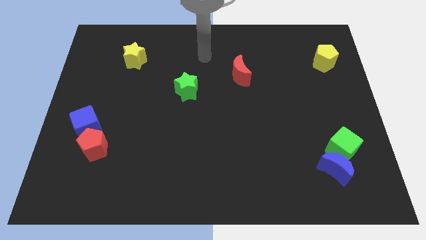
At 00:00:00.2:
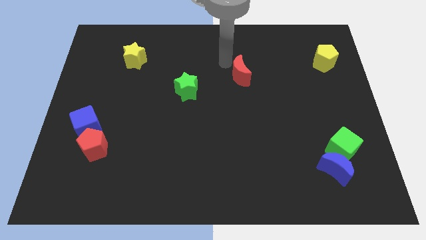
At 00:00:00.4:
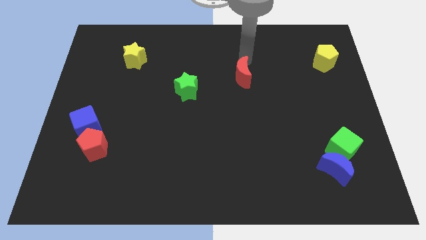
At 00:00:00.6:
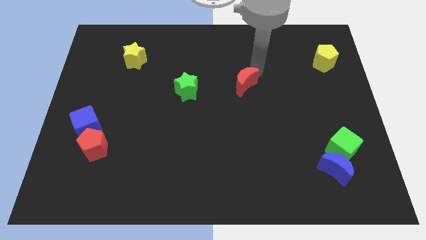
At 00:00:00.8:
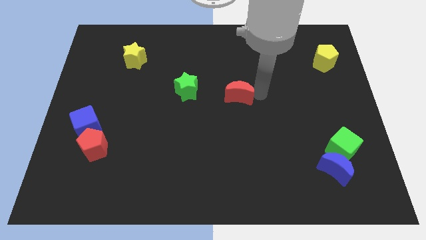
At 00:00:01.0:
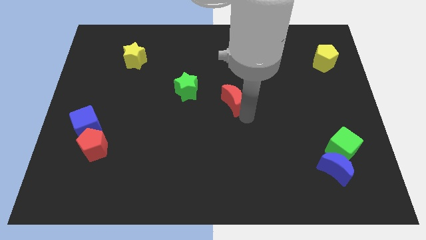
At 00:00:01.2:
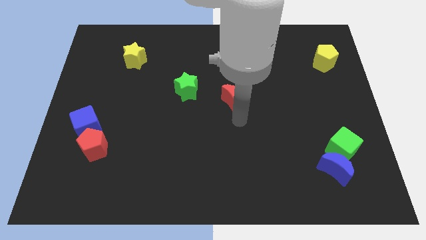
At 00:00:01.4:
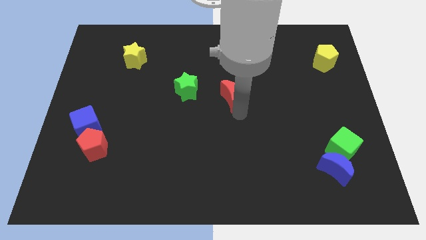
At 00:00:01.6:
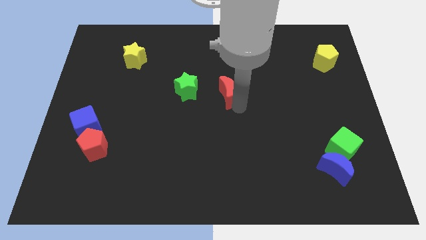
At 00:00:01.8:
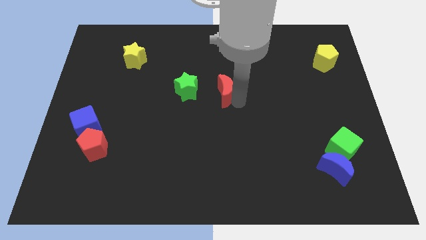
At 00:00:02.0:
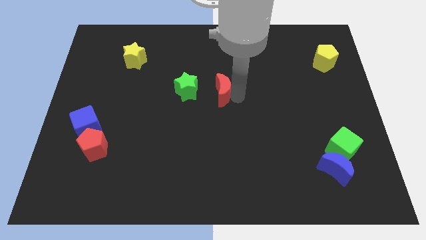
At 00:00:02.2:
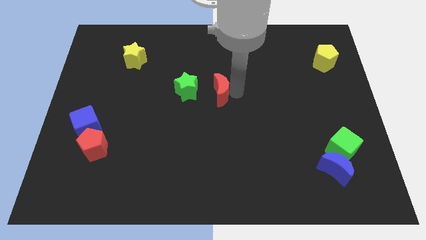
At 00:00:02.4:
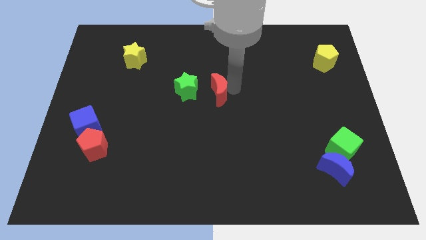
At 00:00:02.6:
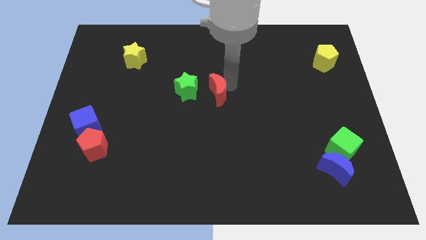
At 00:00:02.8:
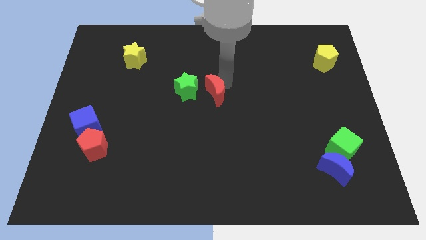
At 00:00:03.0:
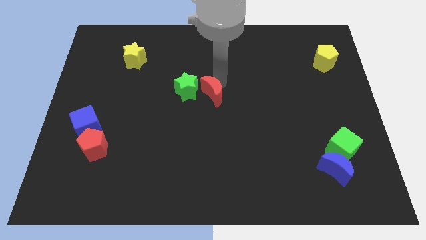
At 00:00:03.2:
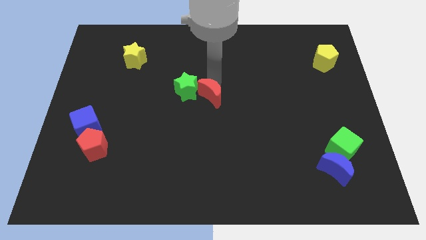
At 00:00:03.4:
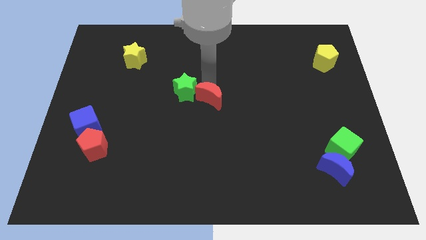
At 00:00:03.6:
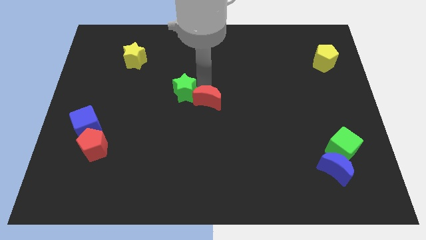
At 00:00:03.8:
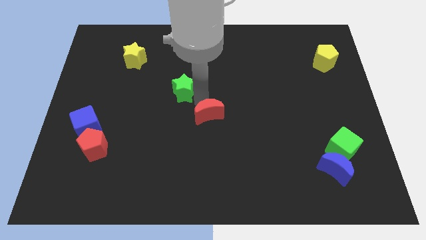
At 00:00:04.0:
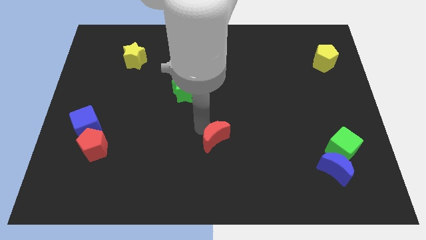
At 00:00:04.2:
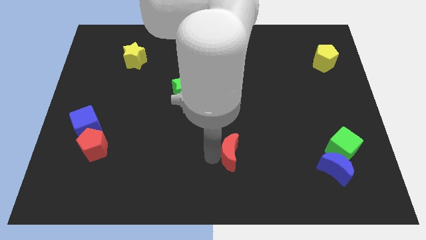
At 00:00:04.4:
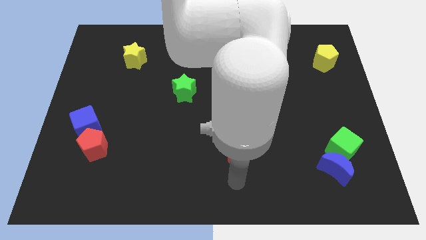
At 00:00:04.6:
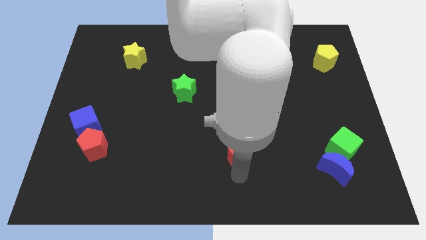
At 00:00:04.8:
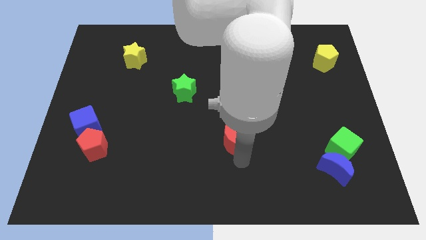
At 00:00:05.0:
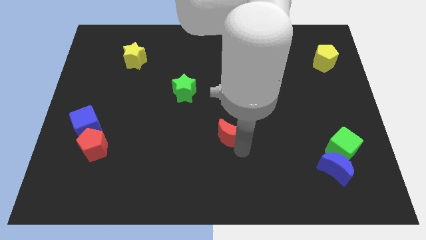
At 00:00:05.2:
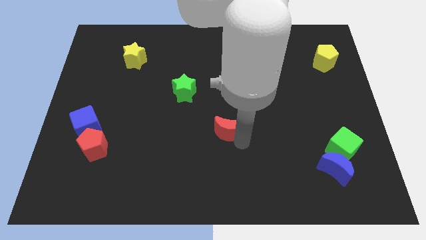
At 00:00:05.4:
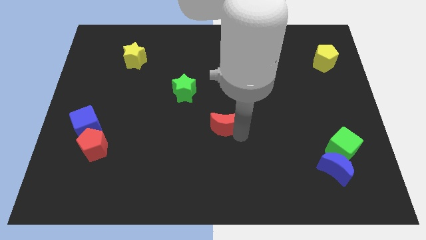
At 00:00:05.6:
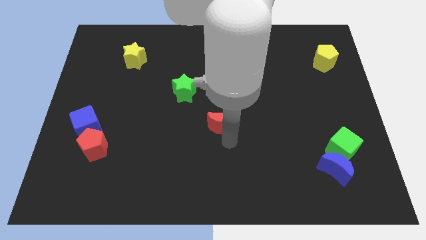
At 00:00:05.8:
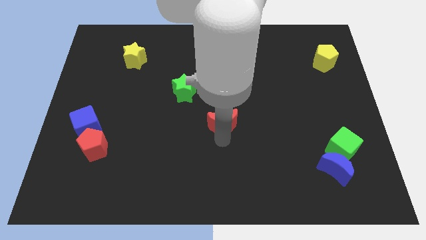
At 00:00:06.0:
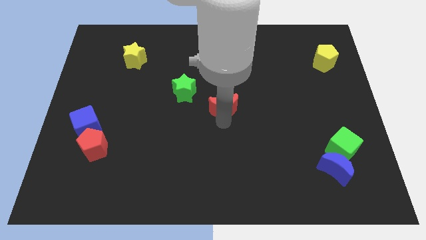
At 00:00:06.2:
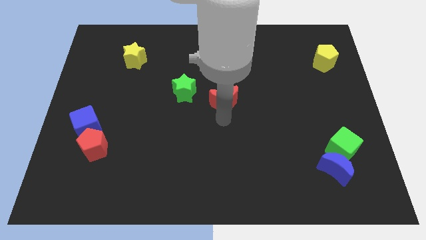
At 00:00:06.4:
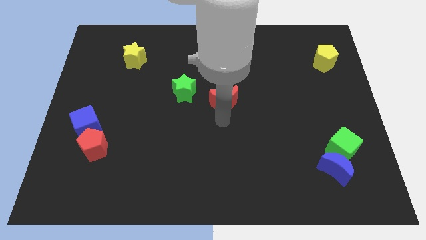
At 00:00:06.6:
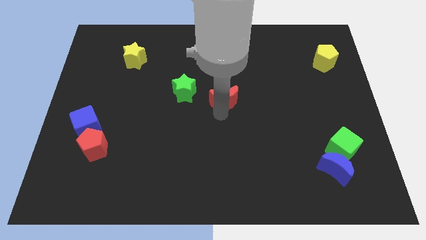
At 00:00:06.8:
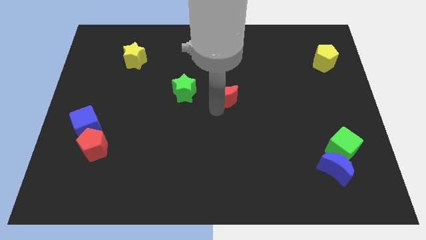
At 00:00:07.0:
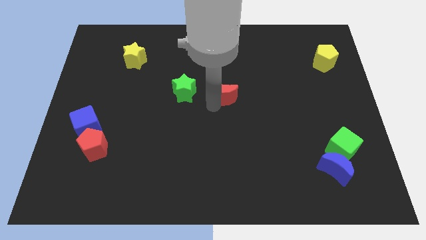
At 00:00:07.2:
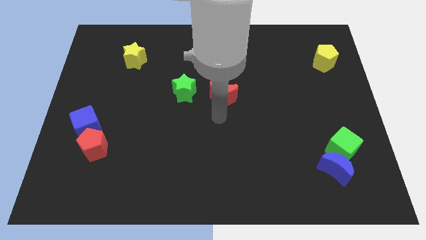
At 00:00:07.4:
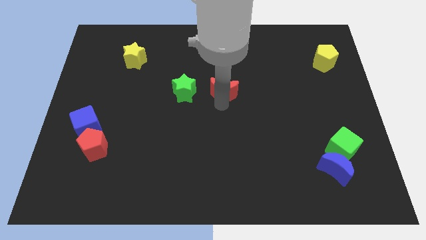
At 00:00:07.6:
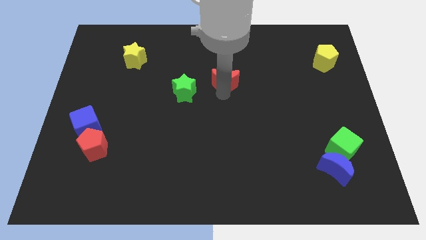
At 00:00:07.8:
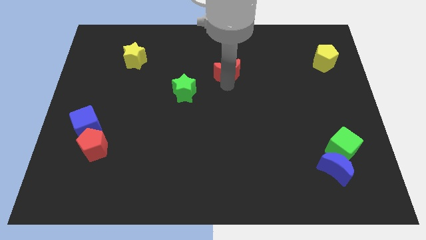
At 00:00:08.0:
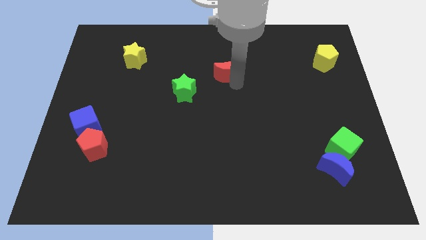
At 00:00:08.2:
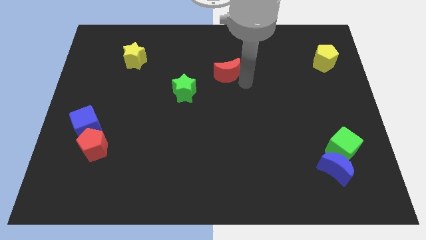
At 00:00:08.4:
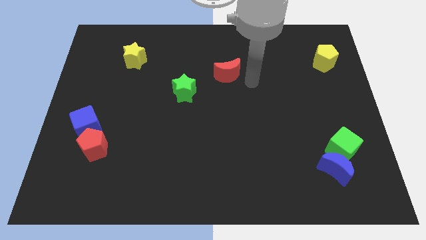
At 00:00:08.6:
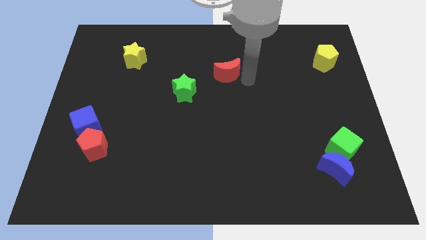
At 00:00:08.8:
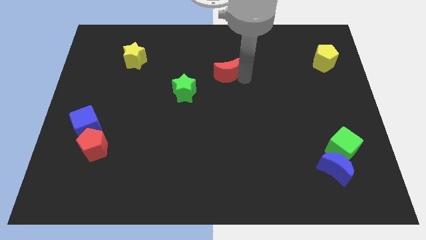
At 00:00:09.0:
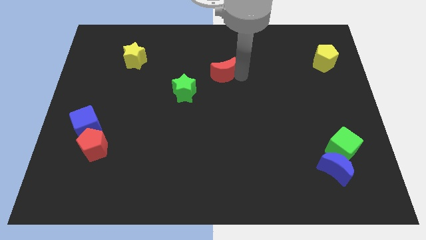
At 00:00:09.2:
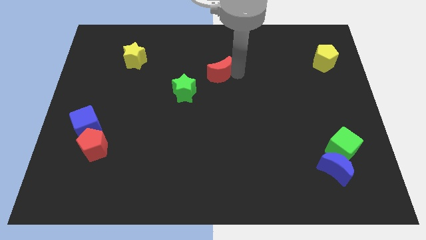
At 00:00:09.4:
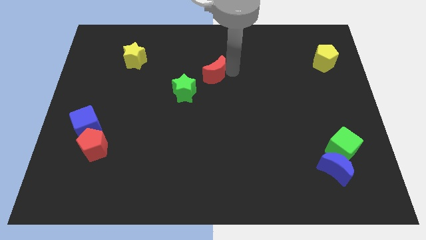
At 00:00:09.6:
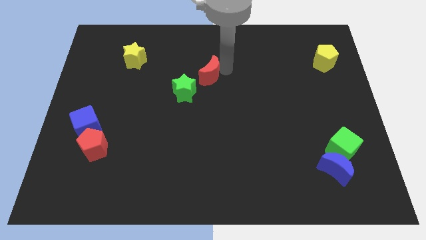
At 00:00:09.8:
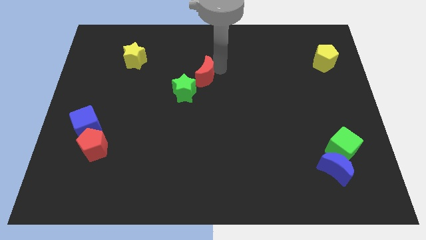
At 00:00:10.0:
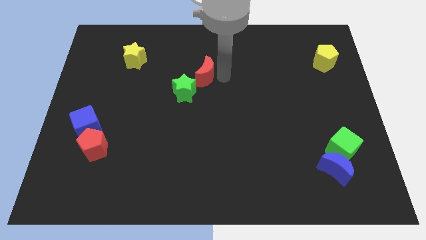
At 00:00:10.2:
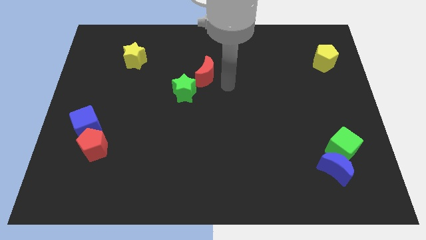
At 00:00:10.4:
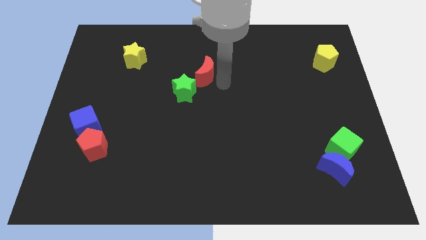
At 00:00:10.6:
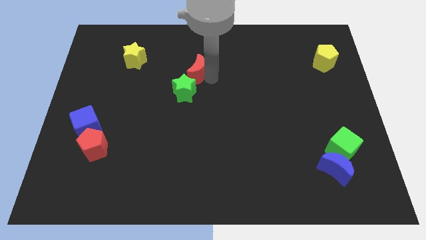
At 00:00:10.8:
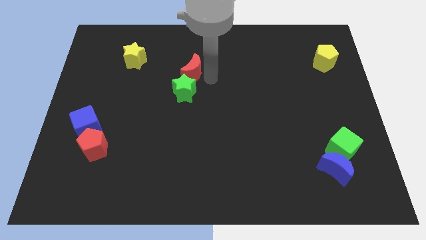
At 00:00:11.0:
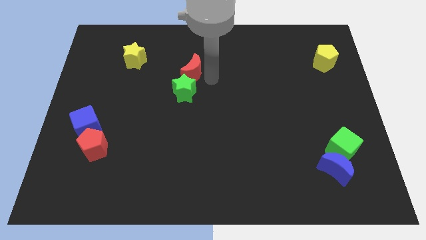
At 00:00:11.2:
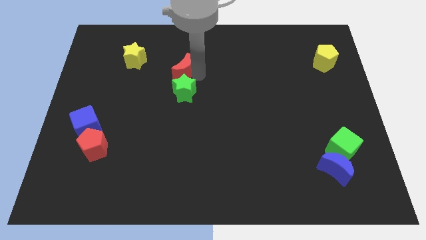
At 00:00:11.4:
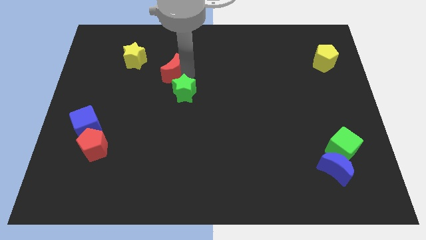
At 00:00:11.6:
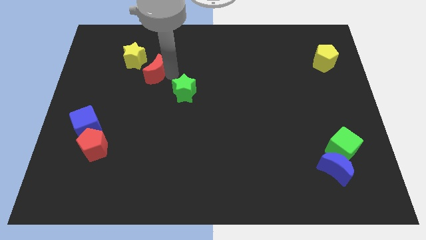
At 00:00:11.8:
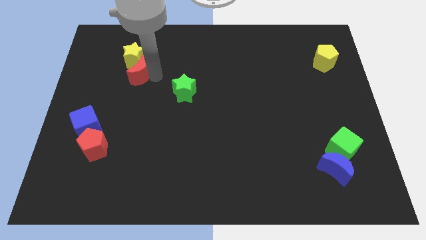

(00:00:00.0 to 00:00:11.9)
put the red moon to the yellow star
